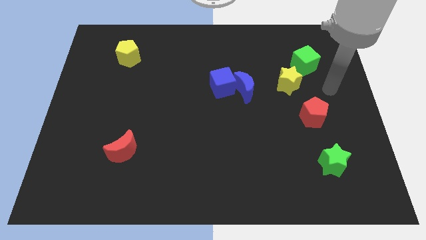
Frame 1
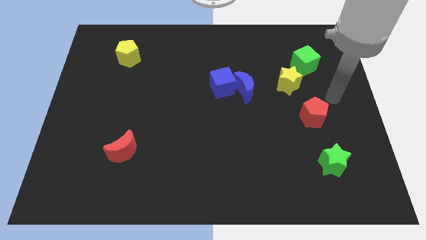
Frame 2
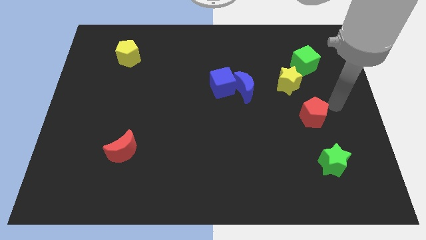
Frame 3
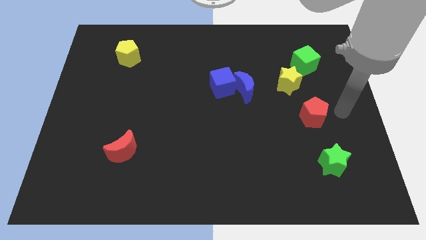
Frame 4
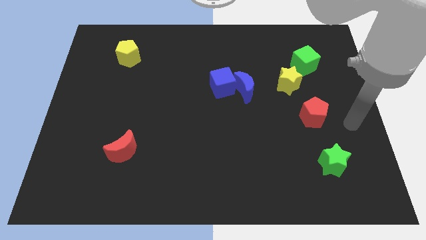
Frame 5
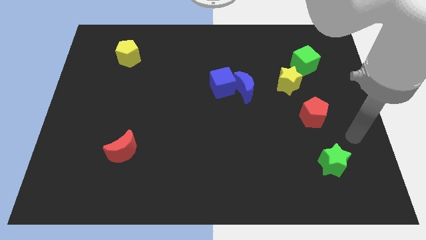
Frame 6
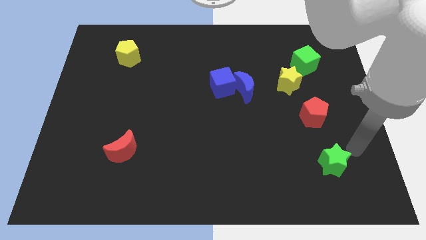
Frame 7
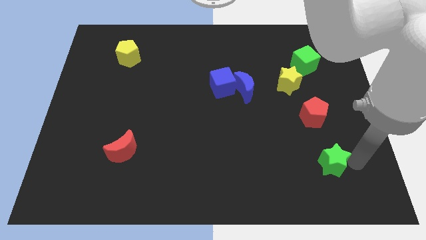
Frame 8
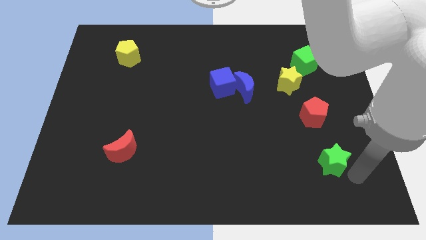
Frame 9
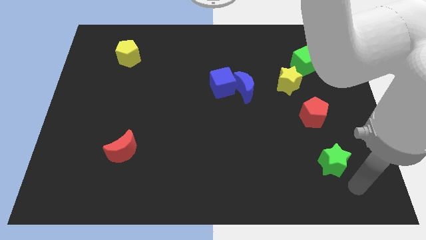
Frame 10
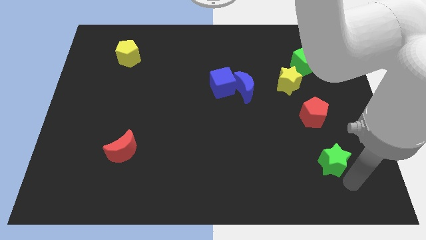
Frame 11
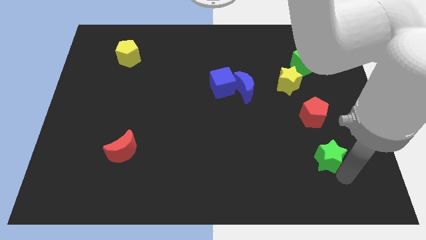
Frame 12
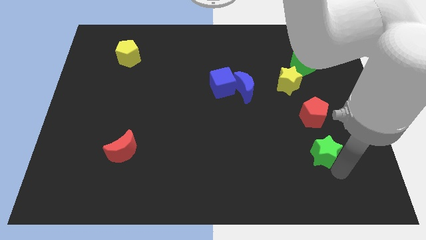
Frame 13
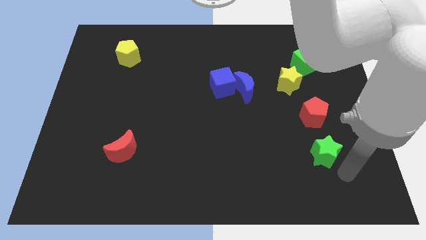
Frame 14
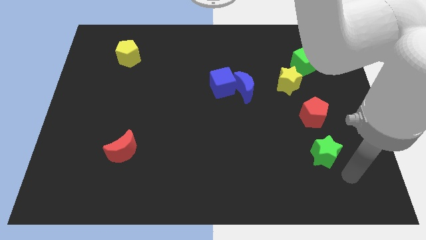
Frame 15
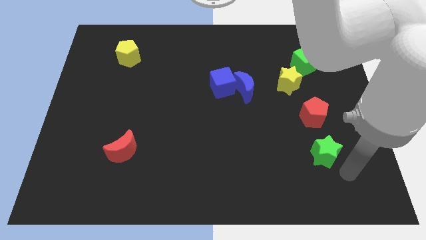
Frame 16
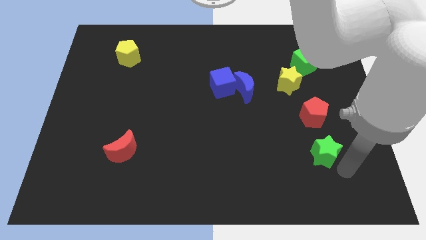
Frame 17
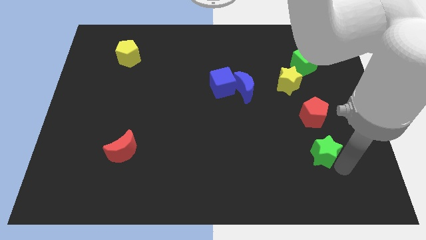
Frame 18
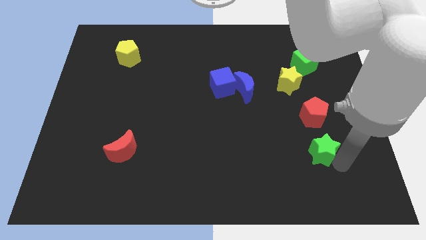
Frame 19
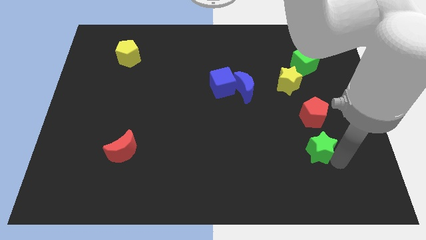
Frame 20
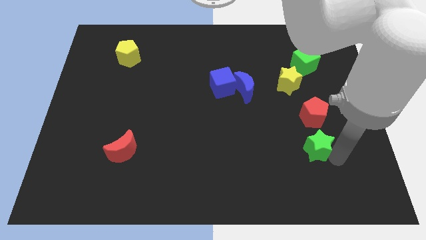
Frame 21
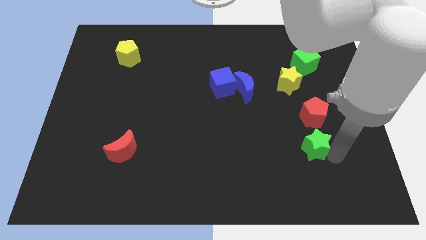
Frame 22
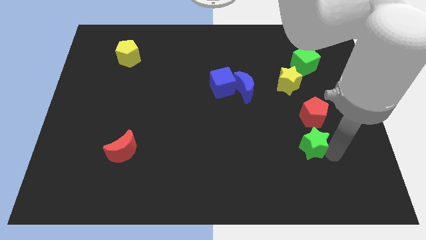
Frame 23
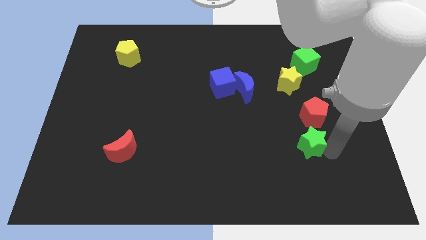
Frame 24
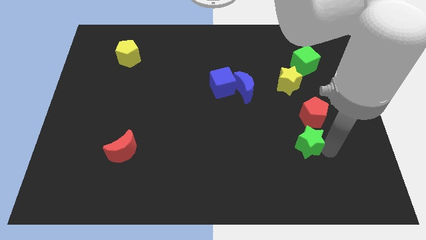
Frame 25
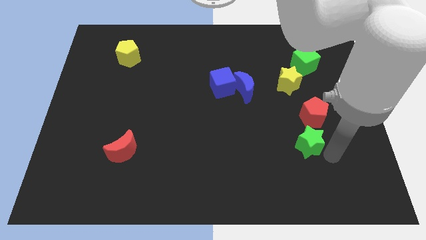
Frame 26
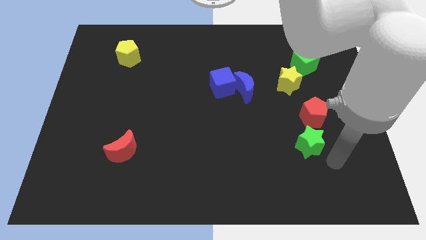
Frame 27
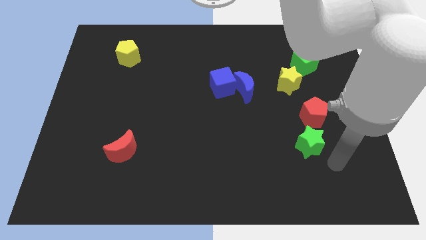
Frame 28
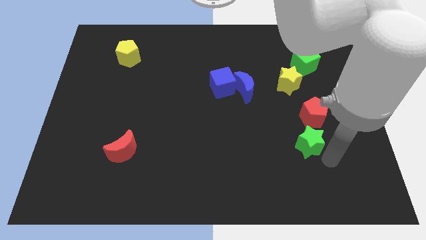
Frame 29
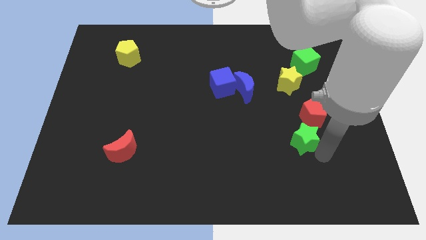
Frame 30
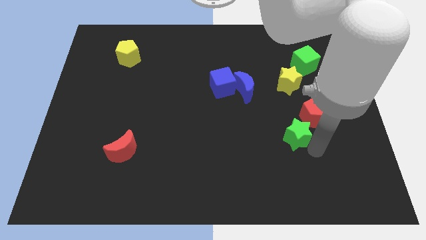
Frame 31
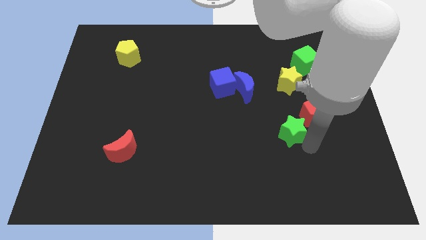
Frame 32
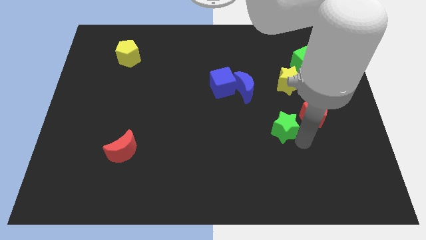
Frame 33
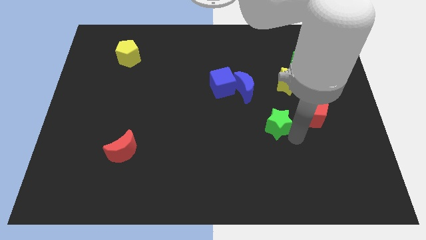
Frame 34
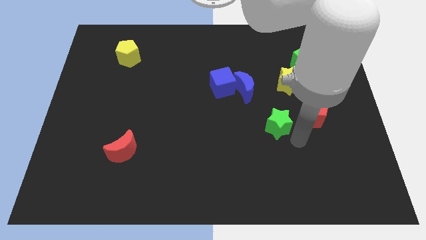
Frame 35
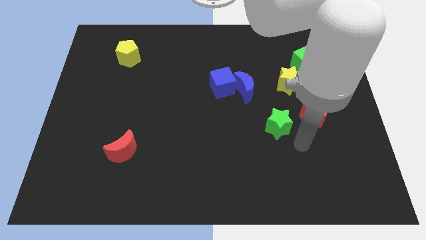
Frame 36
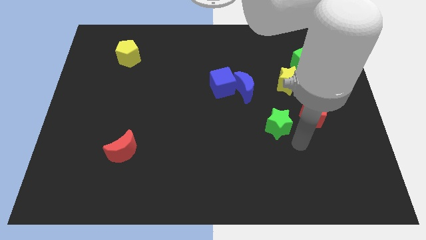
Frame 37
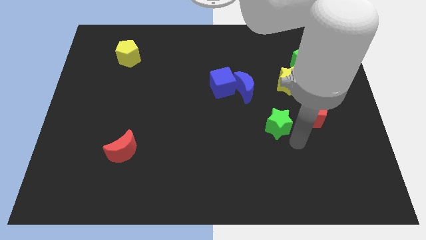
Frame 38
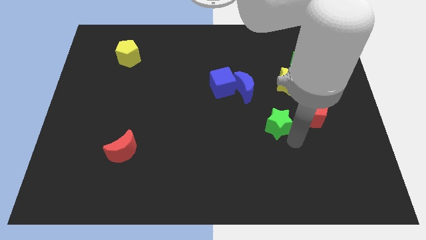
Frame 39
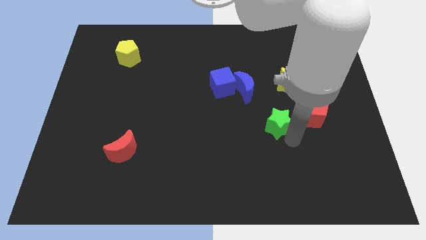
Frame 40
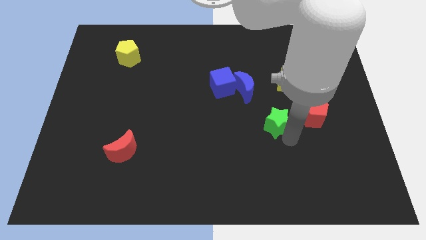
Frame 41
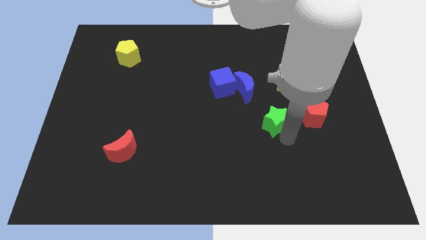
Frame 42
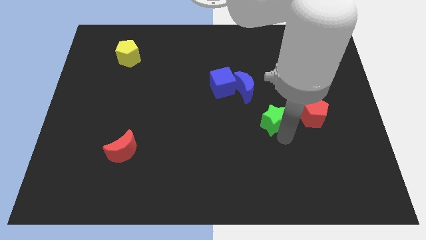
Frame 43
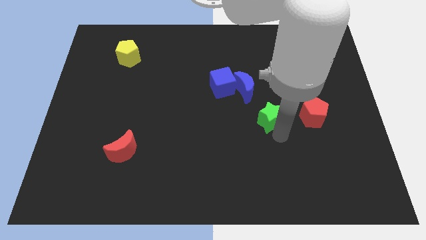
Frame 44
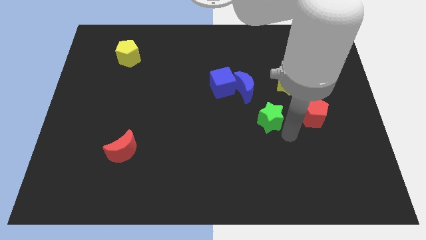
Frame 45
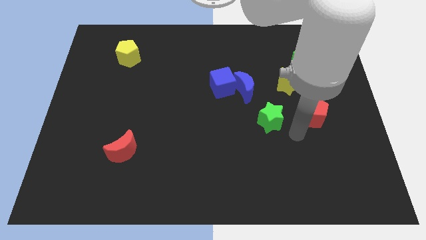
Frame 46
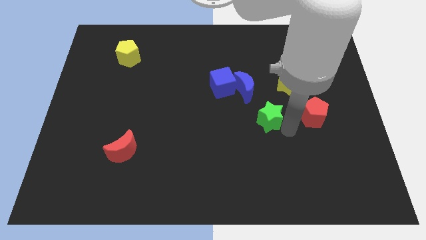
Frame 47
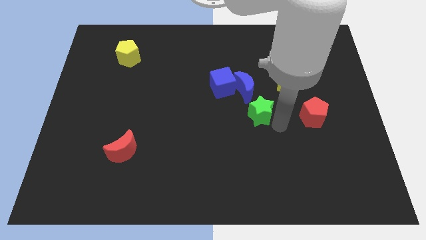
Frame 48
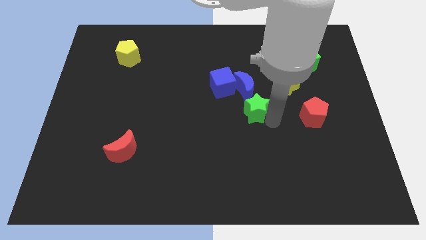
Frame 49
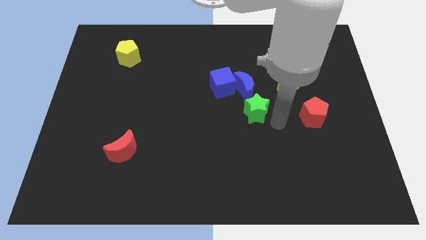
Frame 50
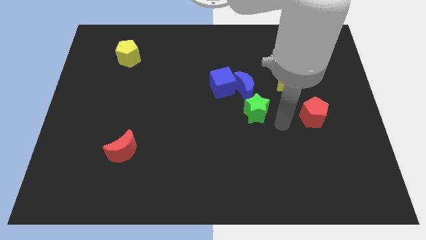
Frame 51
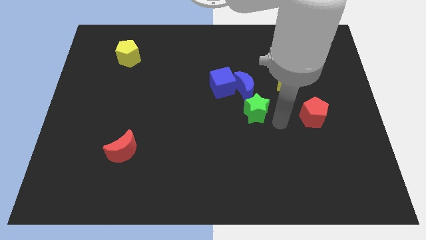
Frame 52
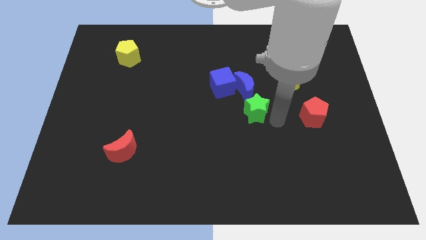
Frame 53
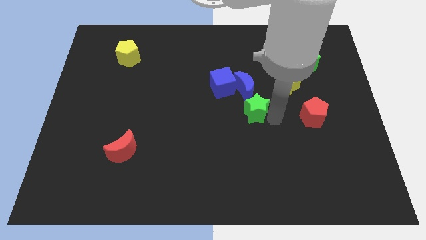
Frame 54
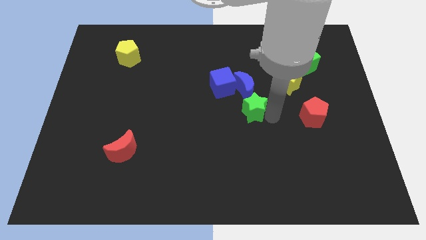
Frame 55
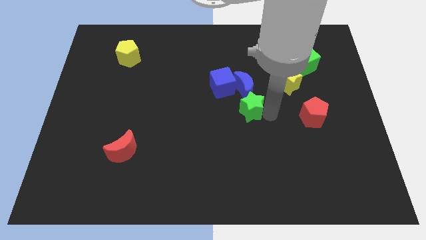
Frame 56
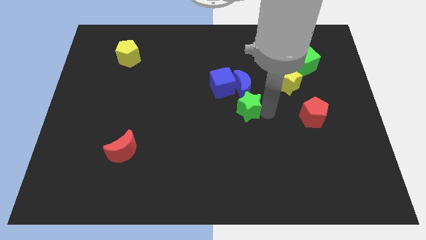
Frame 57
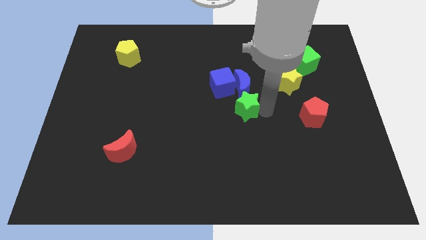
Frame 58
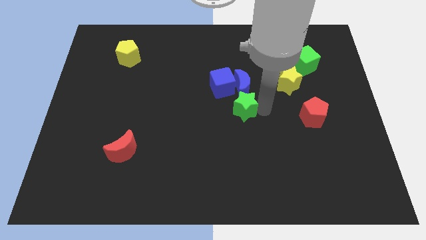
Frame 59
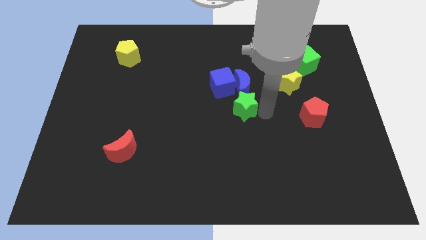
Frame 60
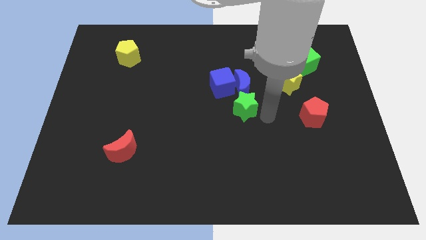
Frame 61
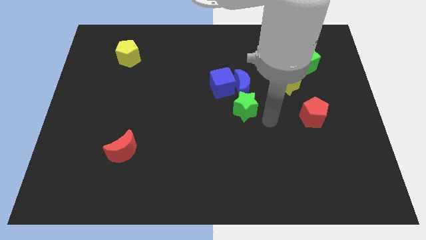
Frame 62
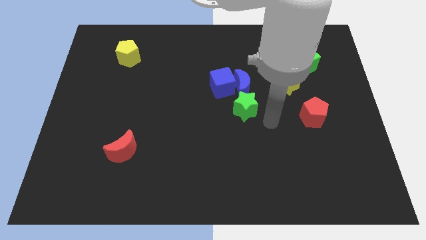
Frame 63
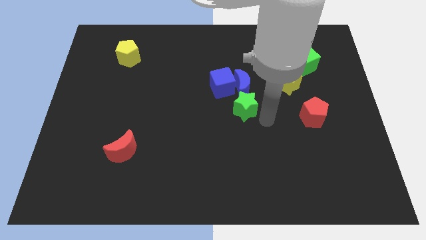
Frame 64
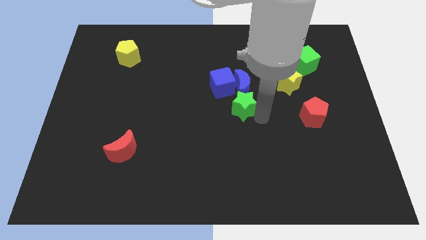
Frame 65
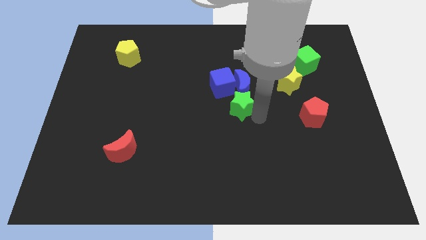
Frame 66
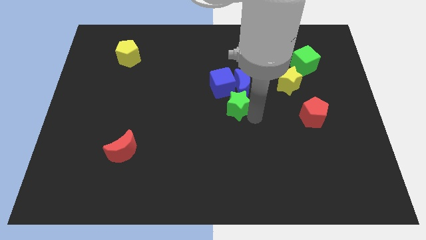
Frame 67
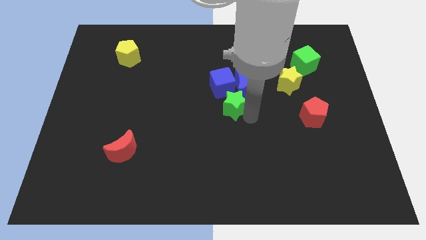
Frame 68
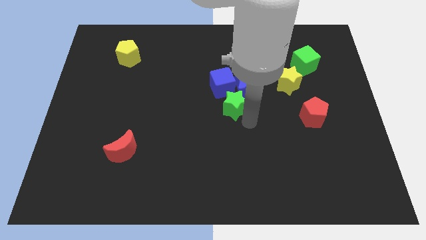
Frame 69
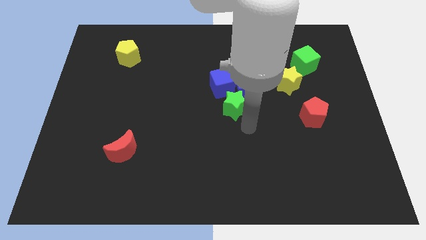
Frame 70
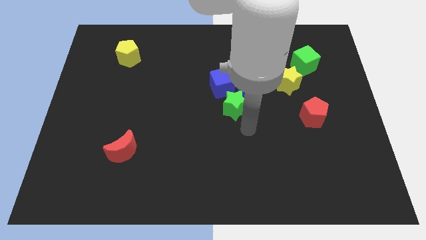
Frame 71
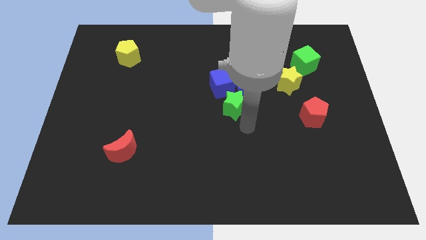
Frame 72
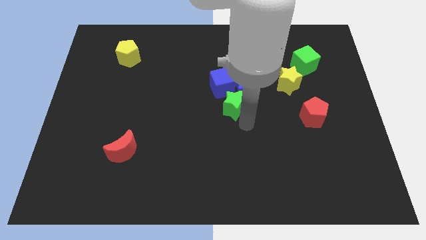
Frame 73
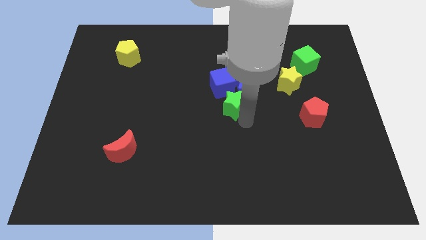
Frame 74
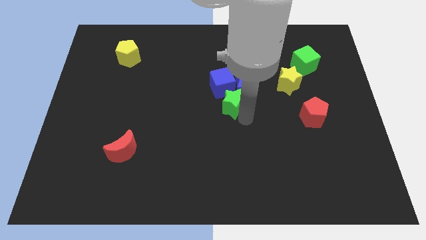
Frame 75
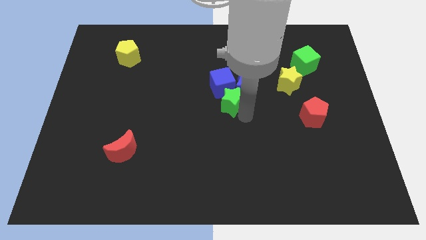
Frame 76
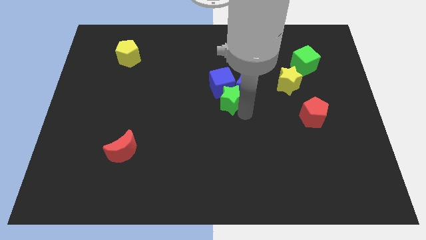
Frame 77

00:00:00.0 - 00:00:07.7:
move the green star towards the blue cube
